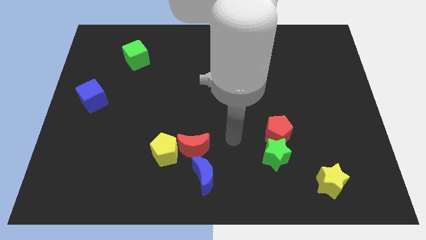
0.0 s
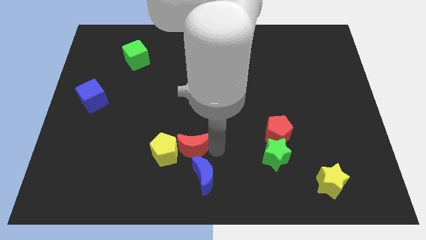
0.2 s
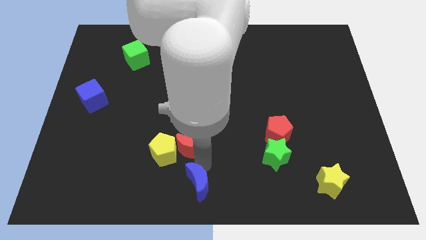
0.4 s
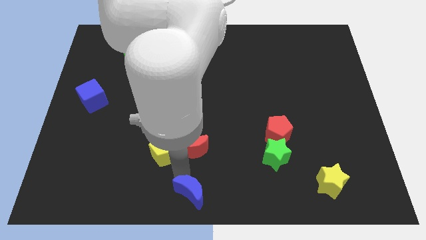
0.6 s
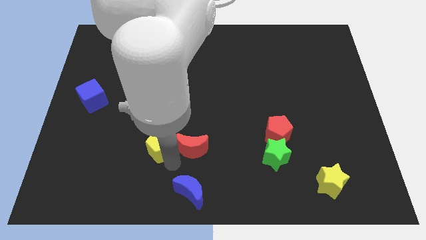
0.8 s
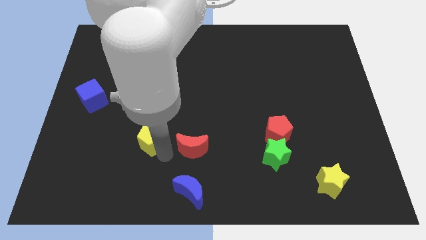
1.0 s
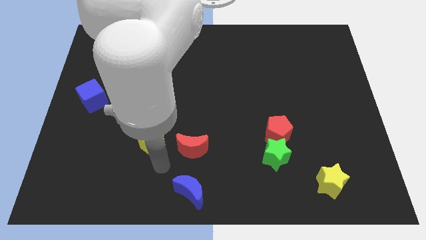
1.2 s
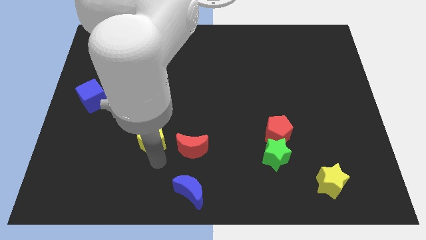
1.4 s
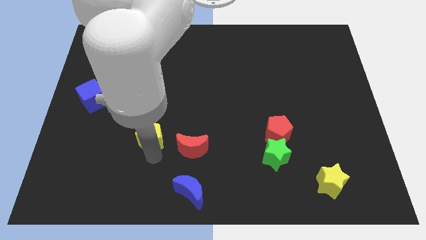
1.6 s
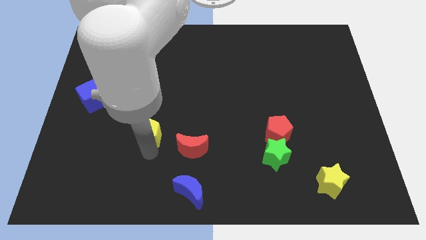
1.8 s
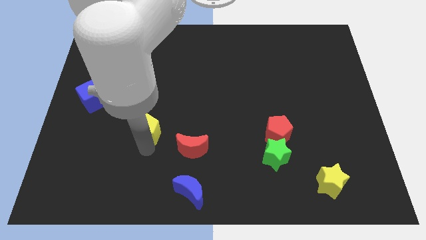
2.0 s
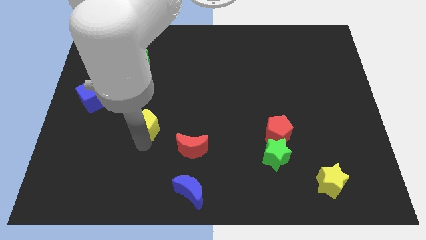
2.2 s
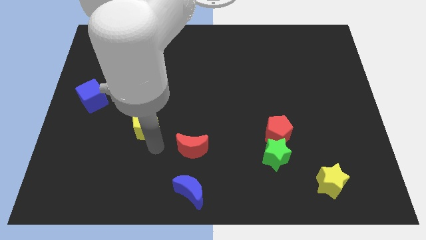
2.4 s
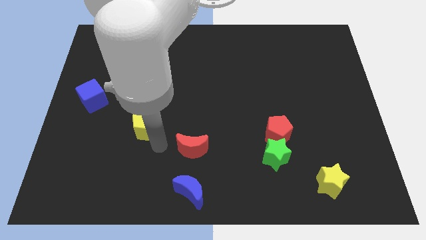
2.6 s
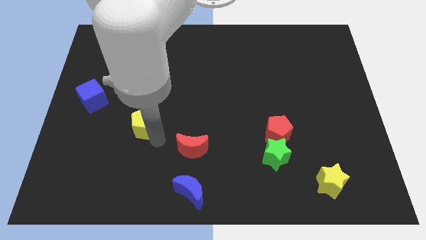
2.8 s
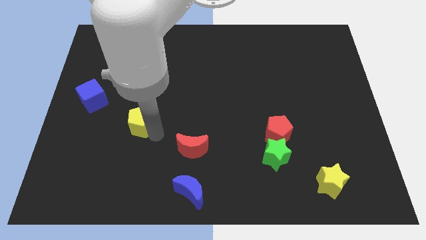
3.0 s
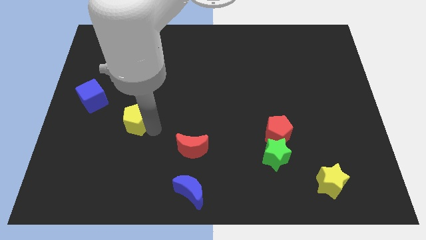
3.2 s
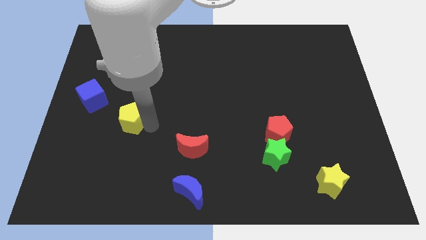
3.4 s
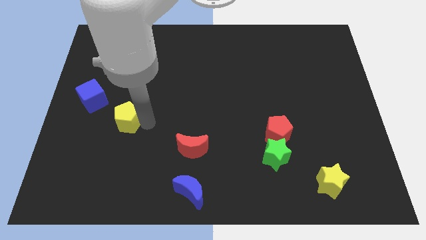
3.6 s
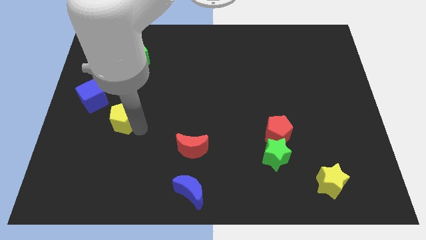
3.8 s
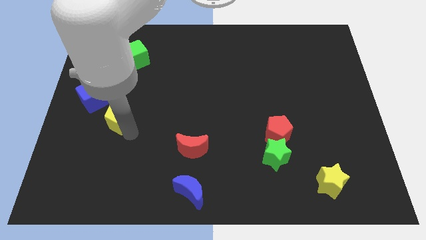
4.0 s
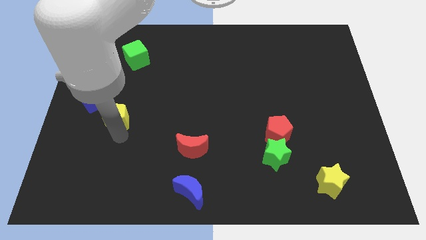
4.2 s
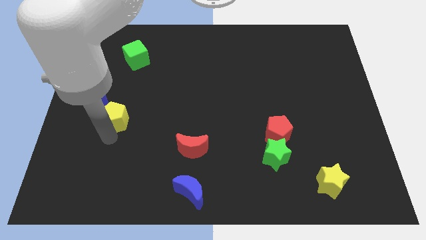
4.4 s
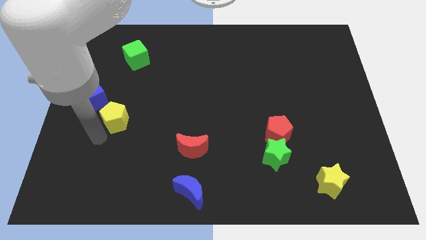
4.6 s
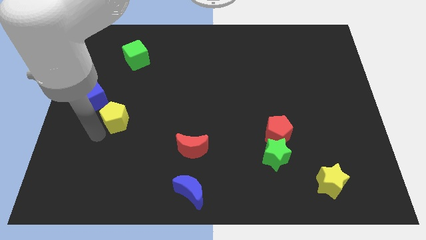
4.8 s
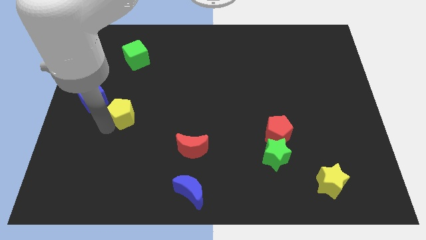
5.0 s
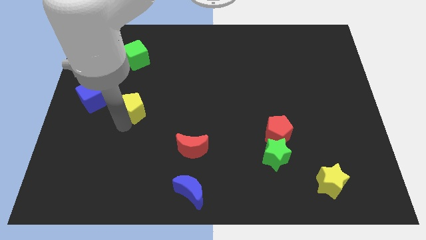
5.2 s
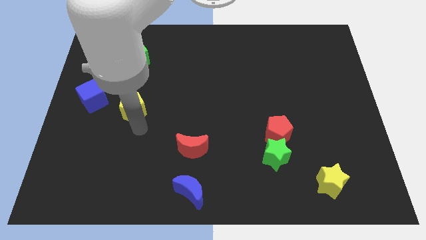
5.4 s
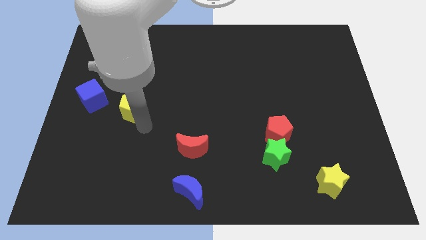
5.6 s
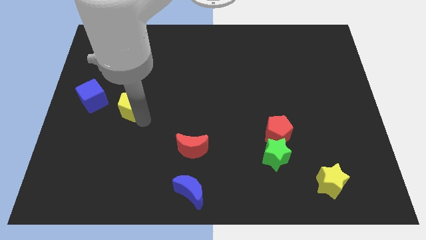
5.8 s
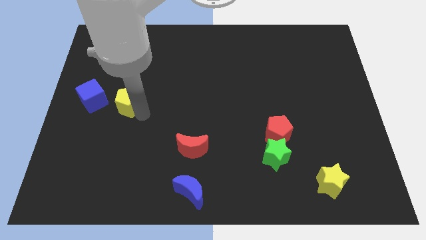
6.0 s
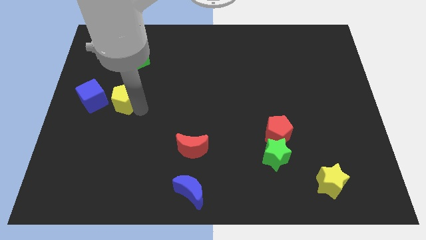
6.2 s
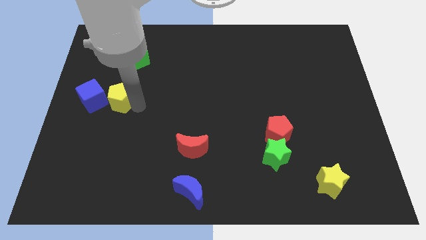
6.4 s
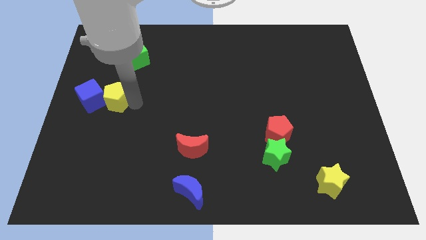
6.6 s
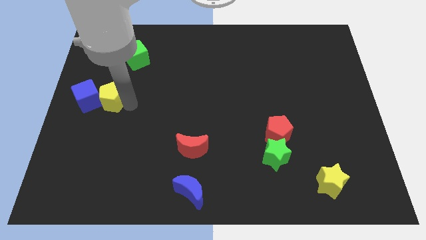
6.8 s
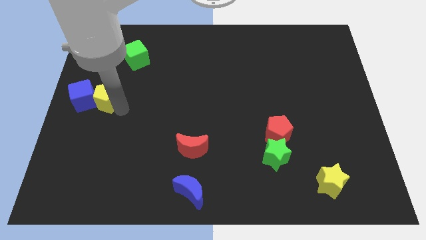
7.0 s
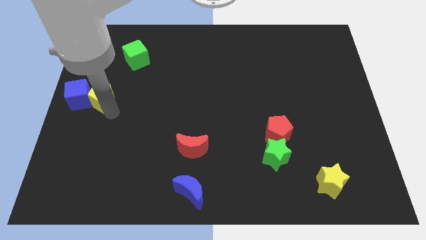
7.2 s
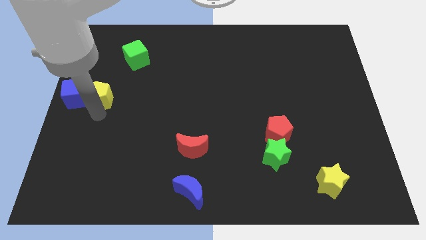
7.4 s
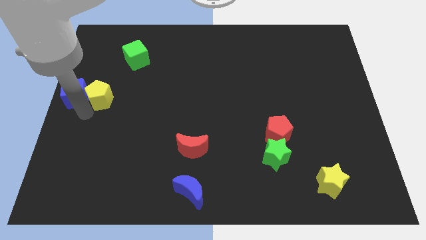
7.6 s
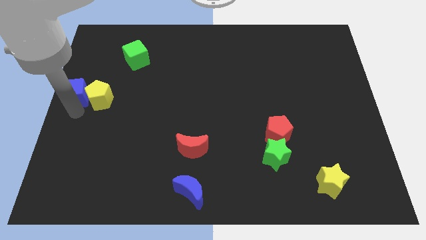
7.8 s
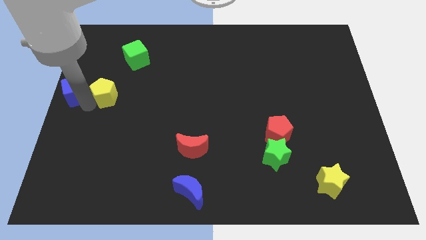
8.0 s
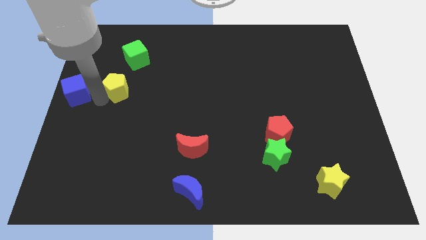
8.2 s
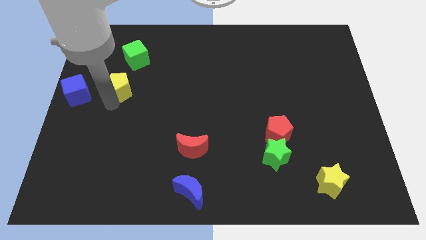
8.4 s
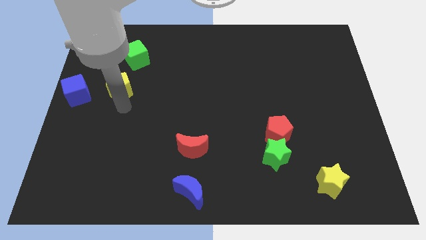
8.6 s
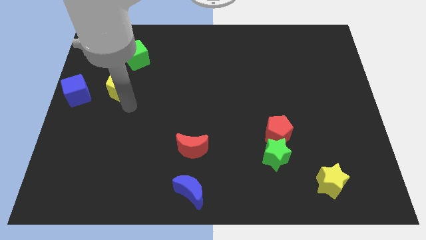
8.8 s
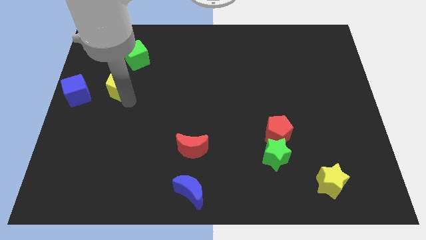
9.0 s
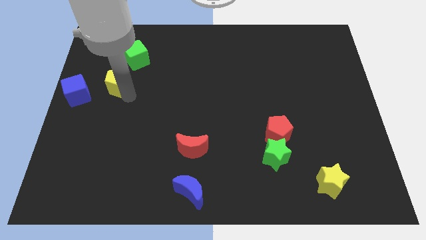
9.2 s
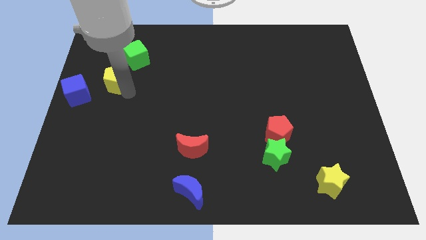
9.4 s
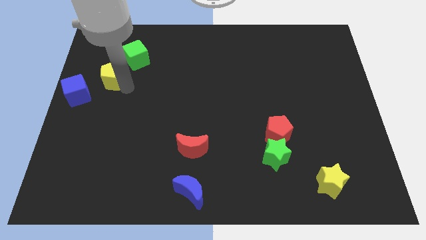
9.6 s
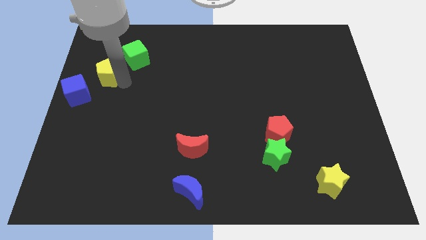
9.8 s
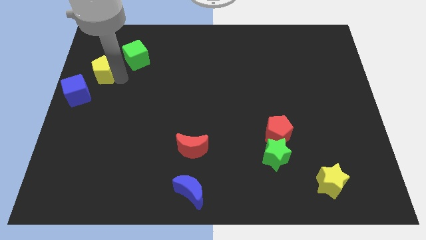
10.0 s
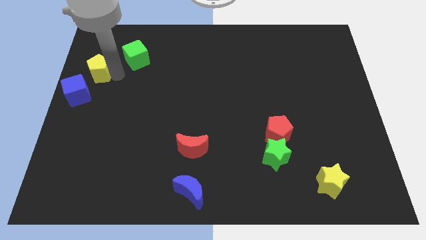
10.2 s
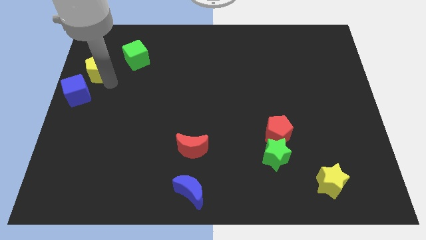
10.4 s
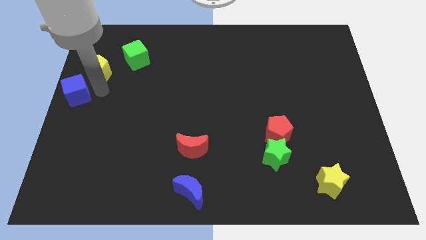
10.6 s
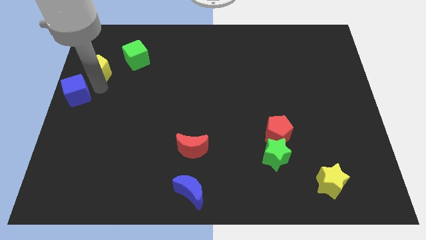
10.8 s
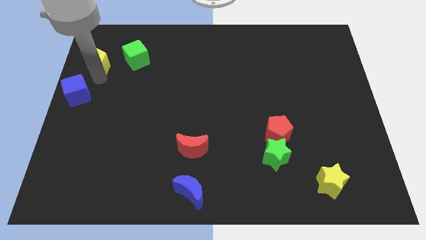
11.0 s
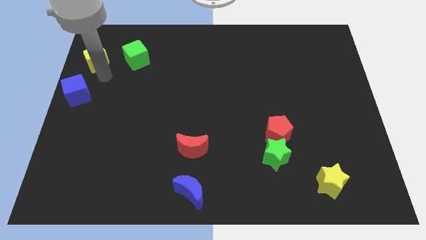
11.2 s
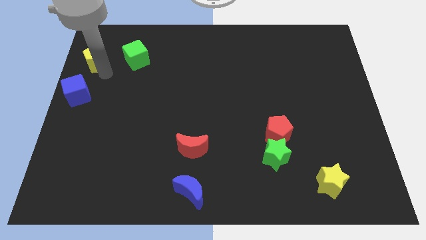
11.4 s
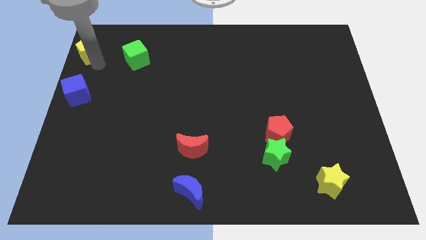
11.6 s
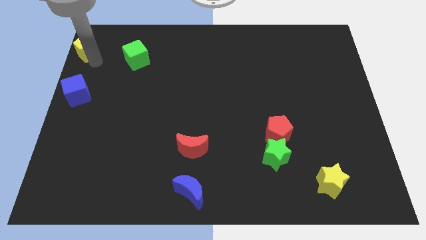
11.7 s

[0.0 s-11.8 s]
slide the yellow pentagon to the upper left corner
